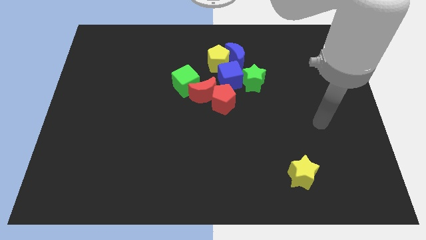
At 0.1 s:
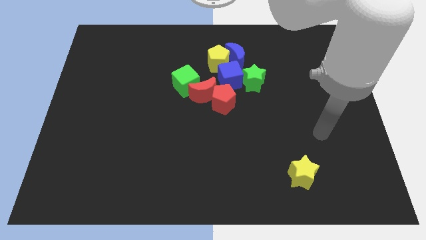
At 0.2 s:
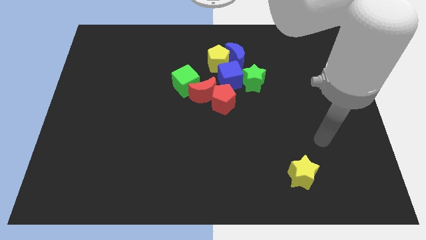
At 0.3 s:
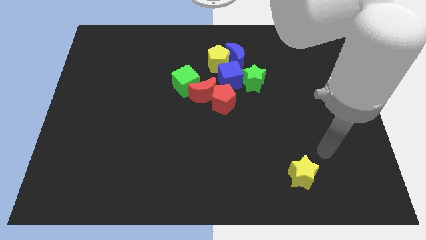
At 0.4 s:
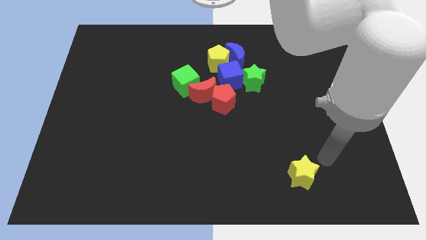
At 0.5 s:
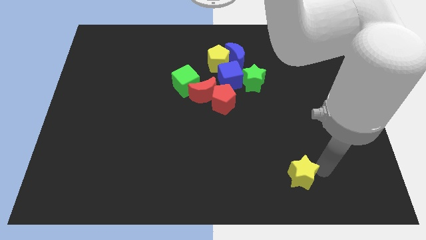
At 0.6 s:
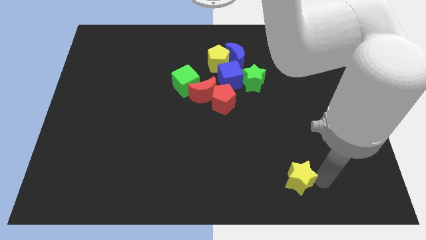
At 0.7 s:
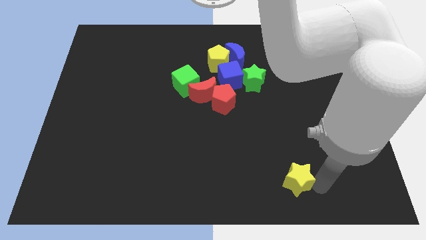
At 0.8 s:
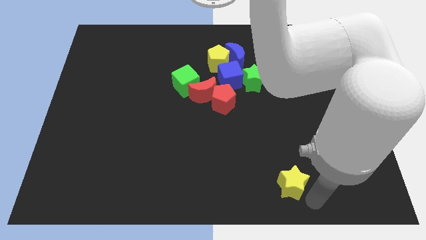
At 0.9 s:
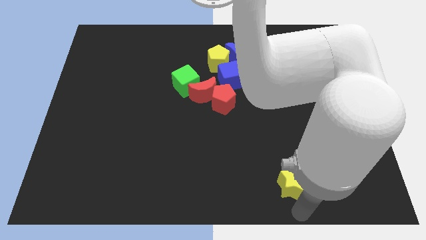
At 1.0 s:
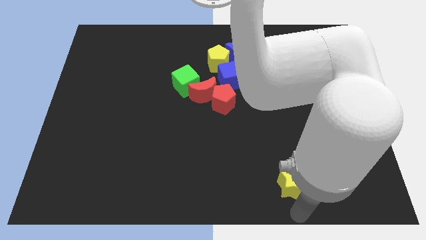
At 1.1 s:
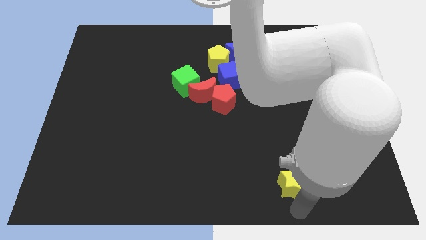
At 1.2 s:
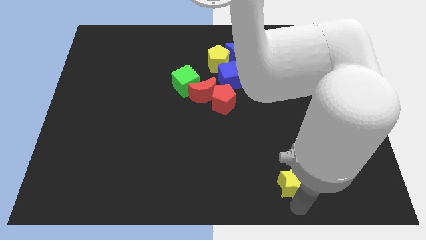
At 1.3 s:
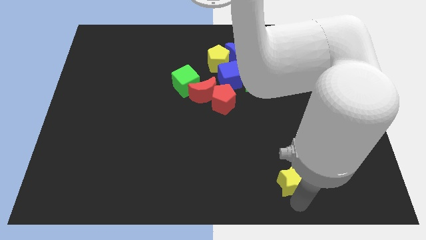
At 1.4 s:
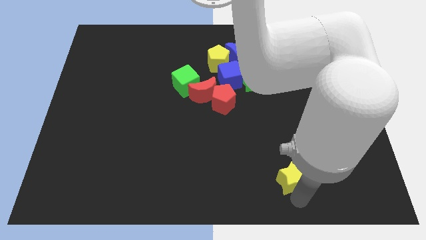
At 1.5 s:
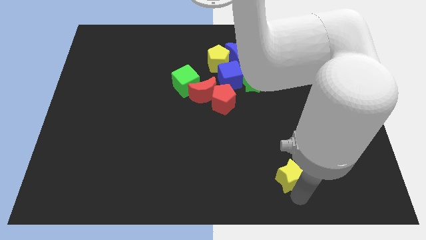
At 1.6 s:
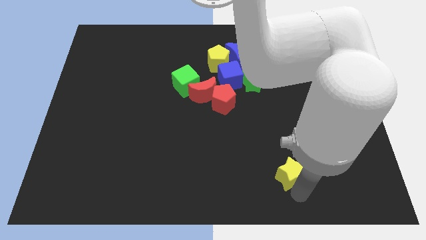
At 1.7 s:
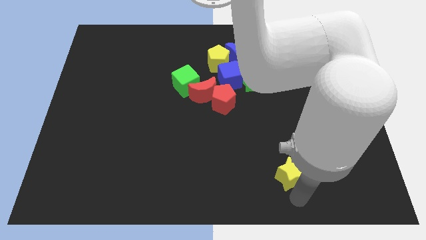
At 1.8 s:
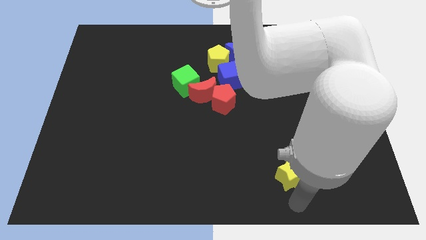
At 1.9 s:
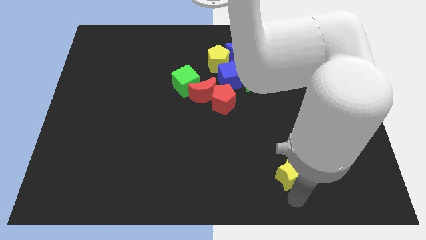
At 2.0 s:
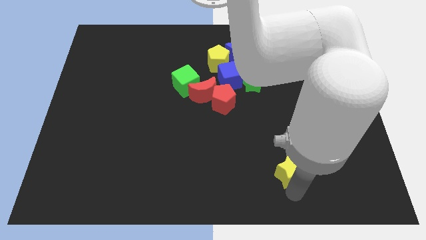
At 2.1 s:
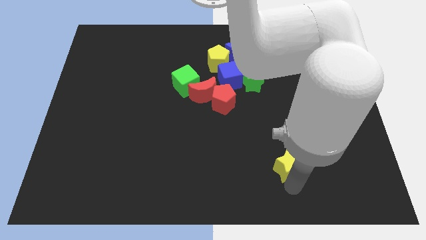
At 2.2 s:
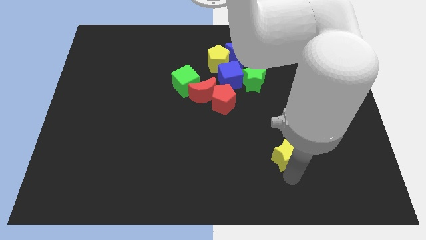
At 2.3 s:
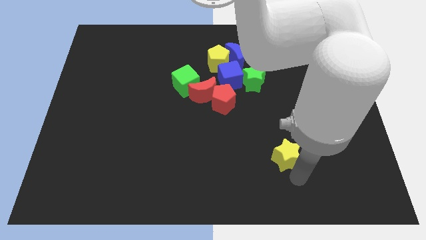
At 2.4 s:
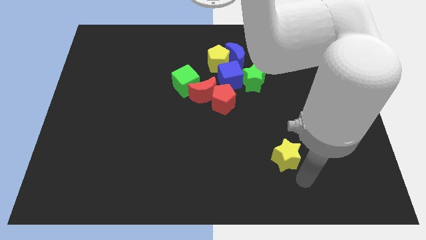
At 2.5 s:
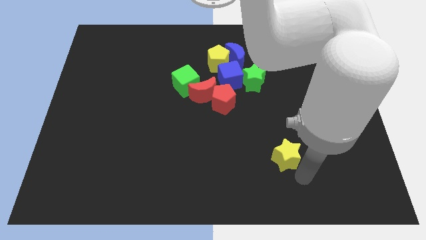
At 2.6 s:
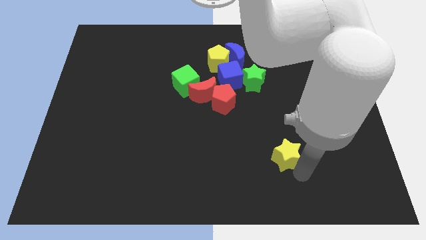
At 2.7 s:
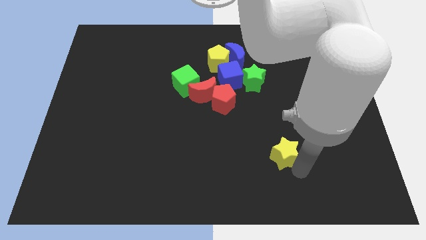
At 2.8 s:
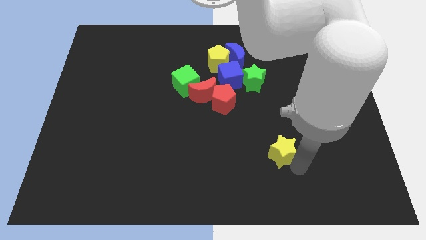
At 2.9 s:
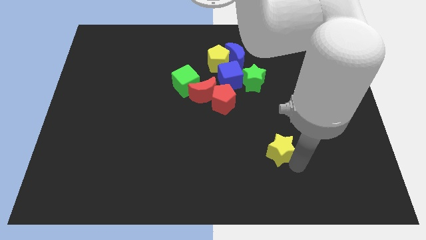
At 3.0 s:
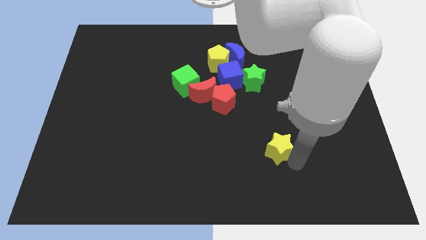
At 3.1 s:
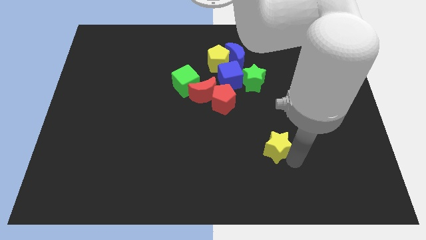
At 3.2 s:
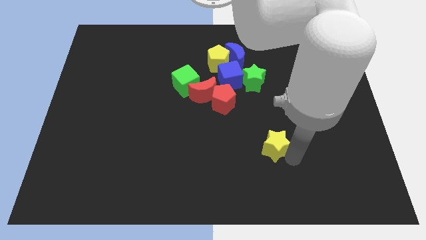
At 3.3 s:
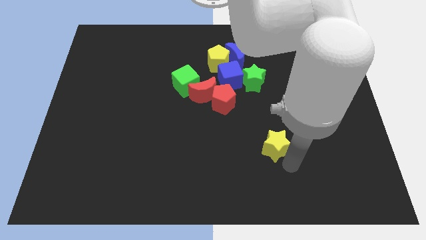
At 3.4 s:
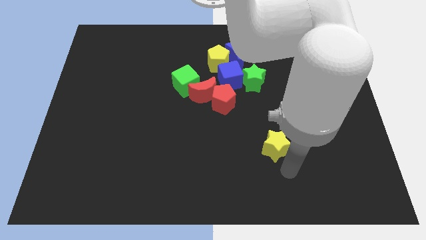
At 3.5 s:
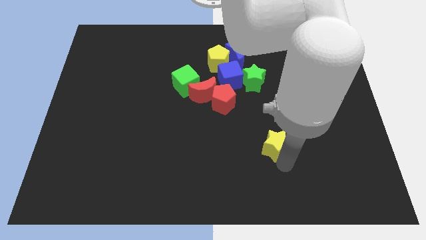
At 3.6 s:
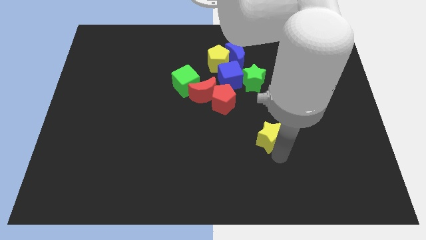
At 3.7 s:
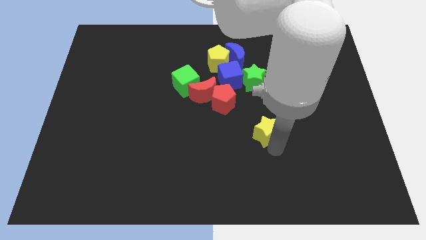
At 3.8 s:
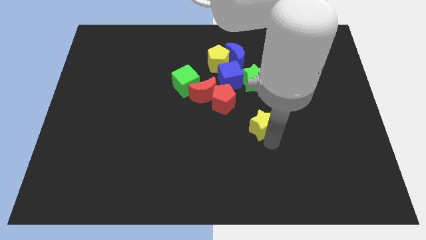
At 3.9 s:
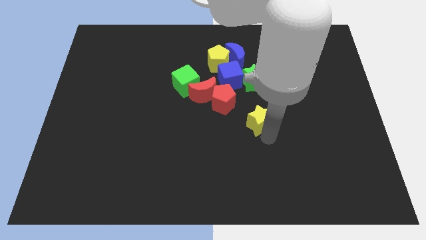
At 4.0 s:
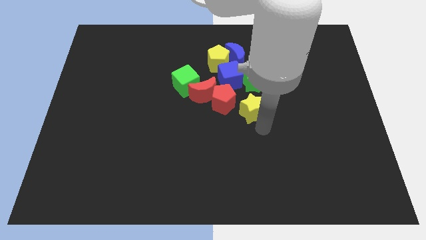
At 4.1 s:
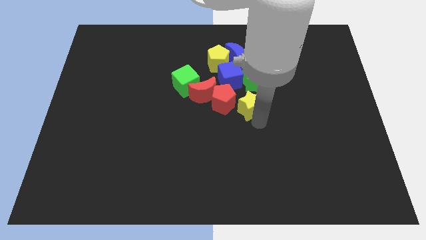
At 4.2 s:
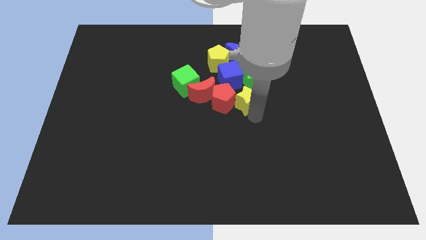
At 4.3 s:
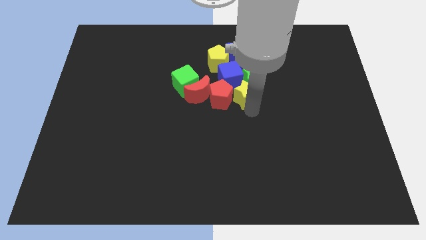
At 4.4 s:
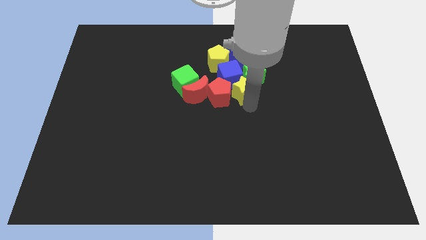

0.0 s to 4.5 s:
push the yellow star close to the blue cube

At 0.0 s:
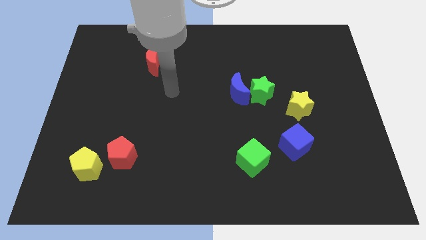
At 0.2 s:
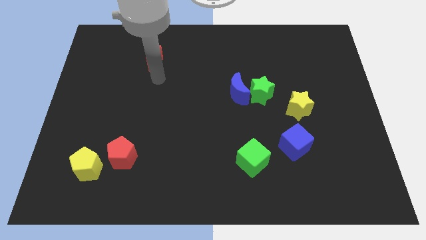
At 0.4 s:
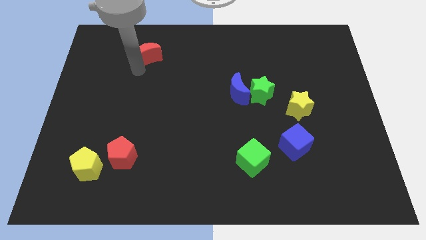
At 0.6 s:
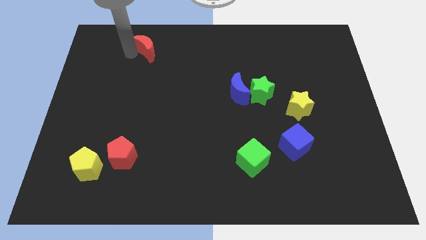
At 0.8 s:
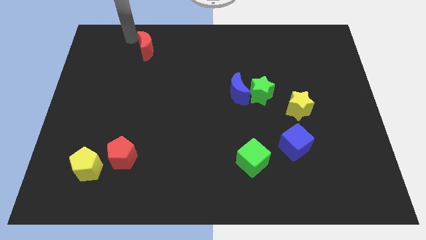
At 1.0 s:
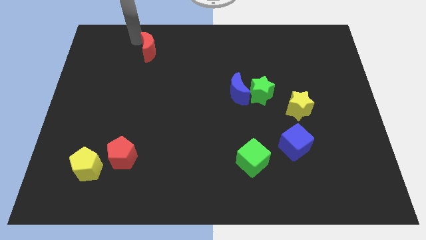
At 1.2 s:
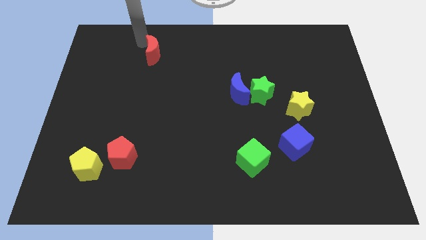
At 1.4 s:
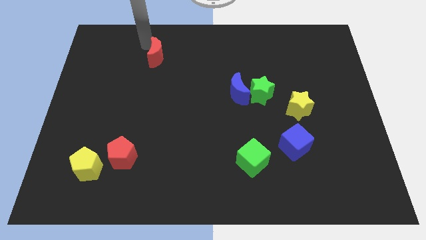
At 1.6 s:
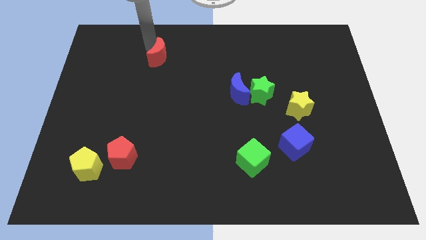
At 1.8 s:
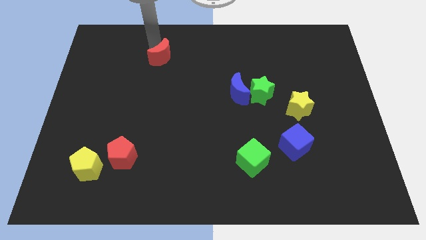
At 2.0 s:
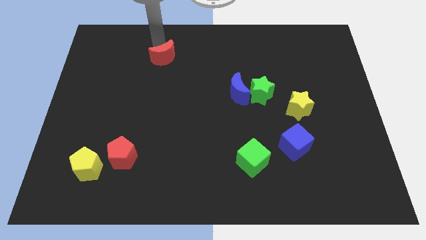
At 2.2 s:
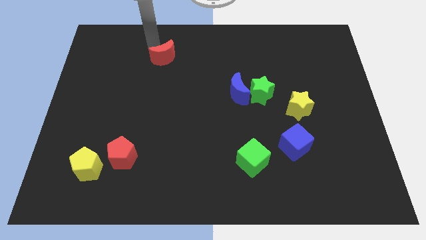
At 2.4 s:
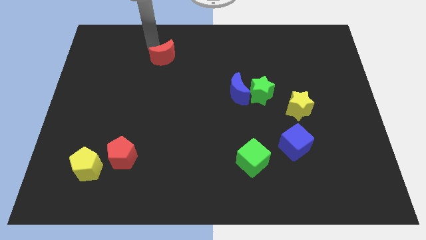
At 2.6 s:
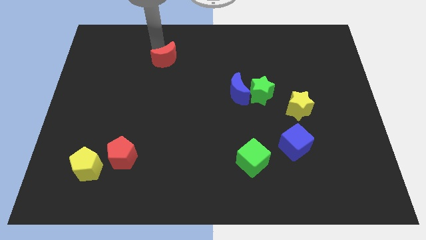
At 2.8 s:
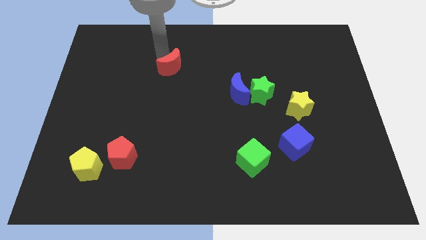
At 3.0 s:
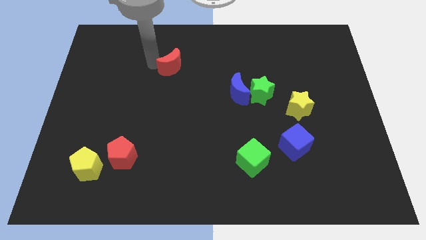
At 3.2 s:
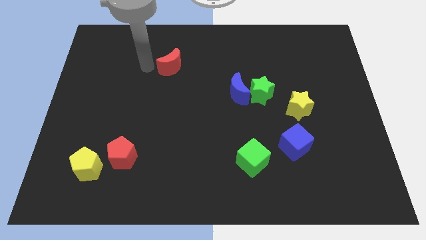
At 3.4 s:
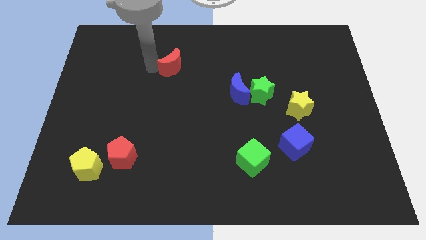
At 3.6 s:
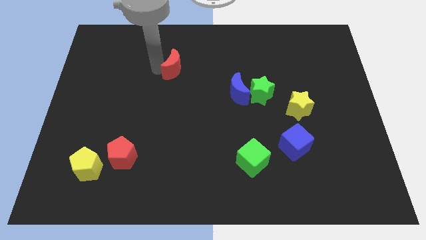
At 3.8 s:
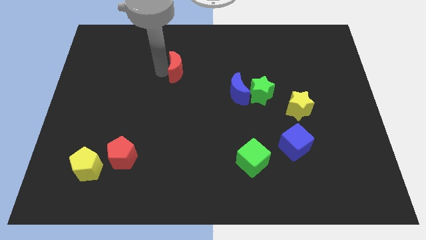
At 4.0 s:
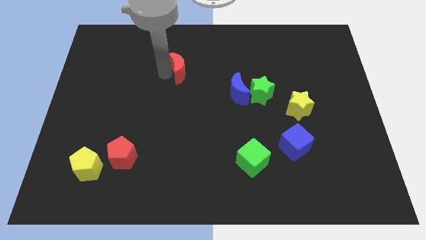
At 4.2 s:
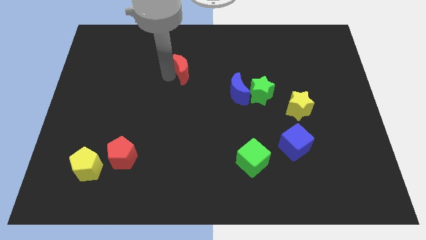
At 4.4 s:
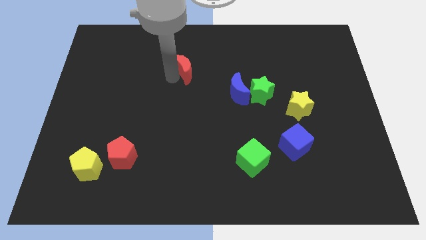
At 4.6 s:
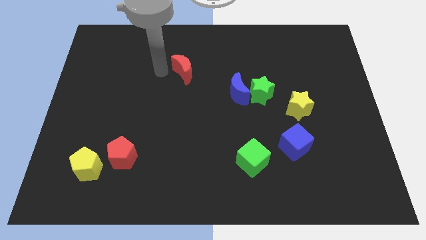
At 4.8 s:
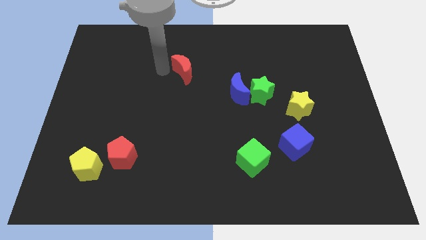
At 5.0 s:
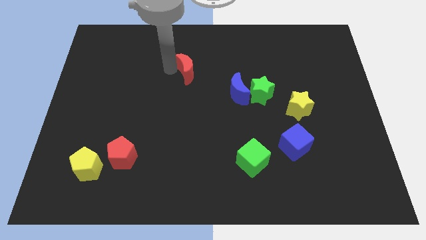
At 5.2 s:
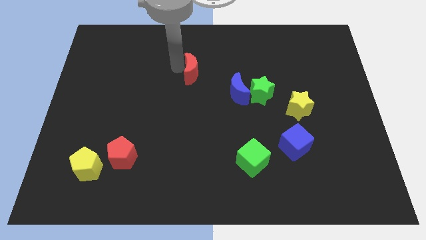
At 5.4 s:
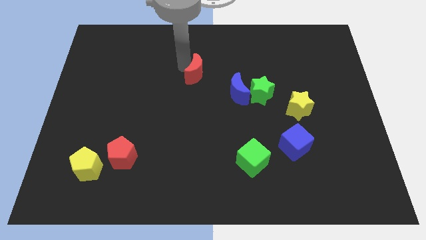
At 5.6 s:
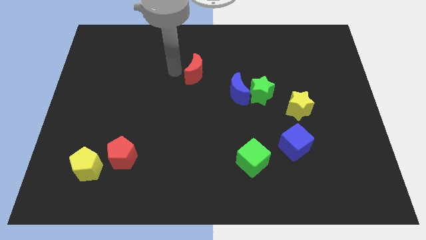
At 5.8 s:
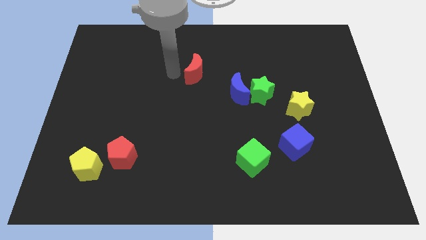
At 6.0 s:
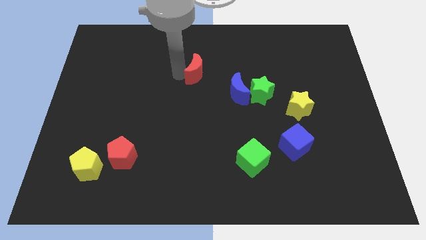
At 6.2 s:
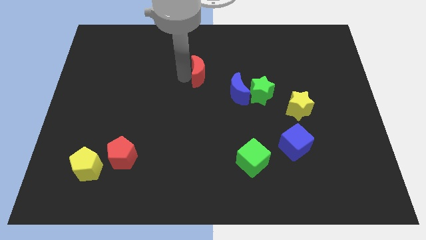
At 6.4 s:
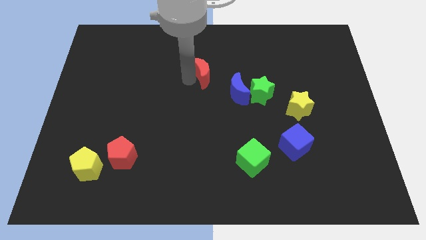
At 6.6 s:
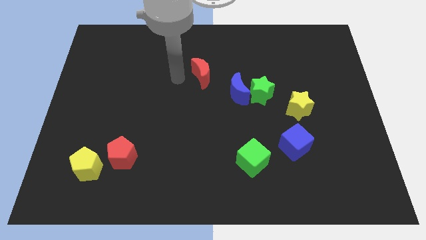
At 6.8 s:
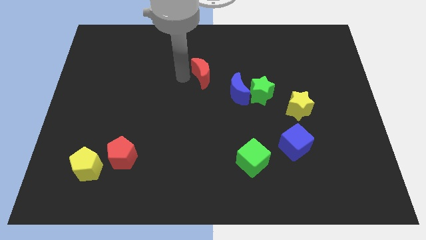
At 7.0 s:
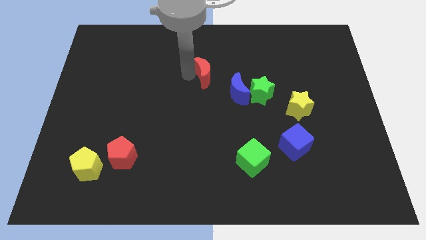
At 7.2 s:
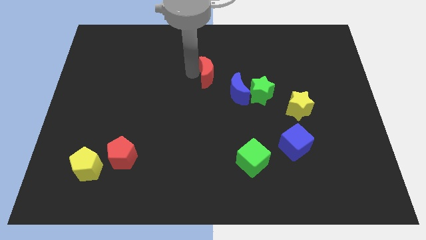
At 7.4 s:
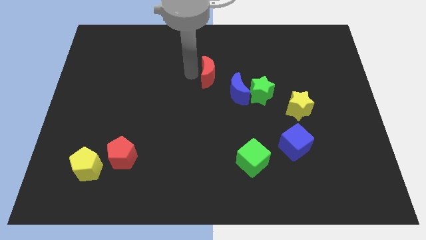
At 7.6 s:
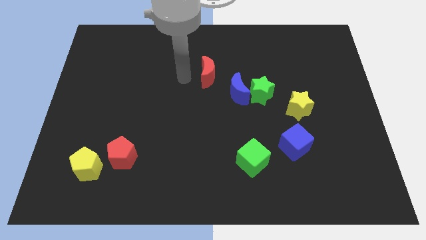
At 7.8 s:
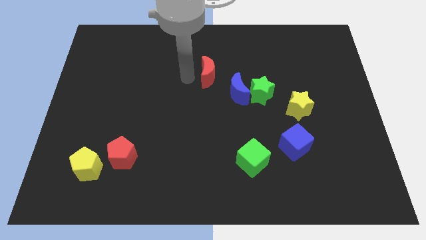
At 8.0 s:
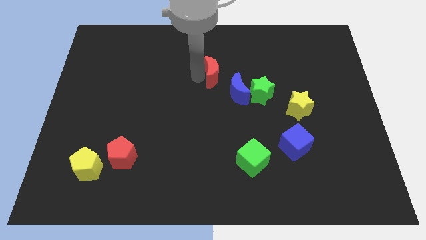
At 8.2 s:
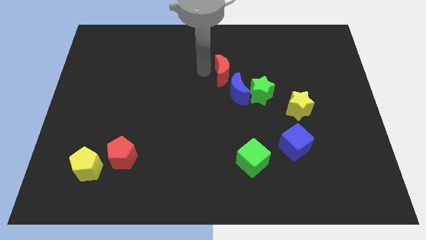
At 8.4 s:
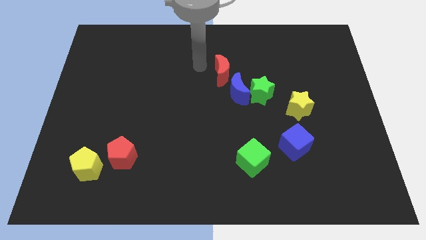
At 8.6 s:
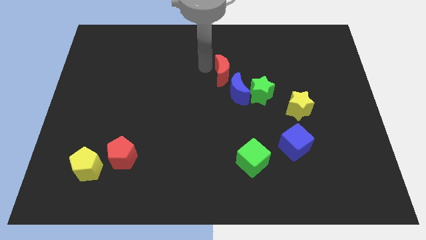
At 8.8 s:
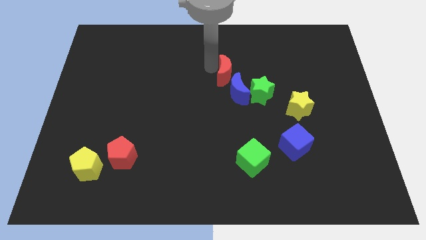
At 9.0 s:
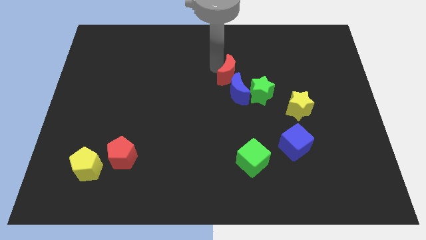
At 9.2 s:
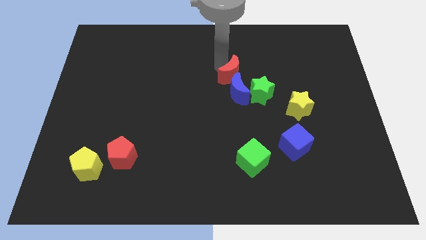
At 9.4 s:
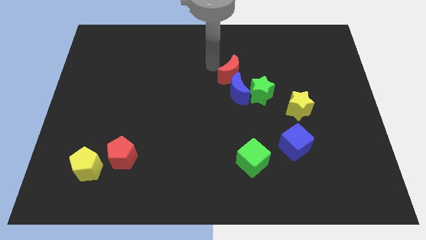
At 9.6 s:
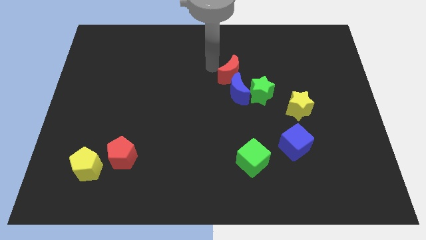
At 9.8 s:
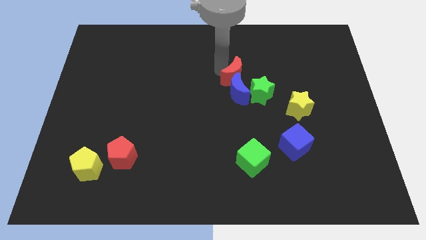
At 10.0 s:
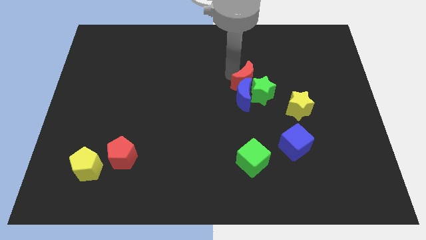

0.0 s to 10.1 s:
slide the red moon towards the green star
